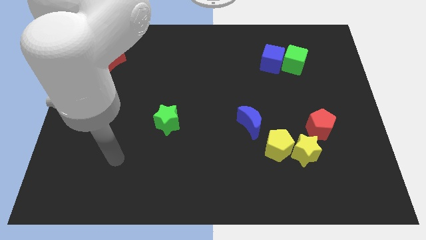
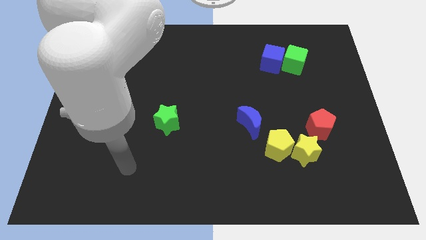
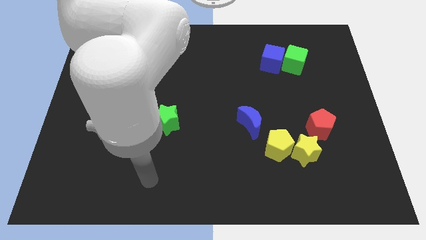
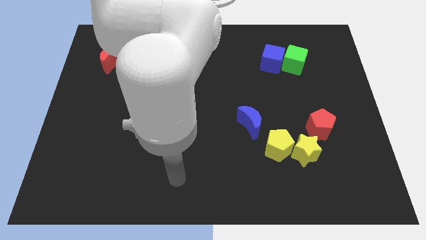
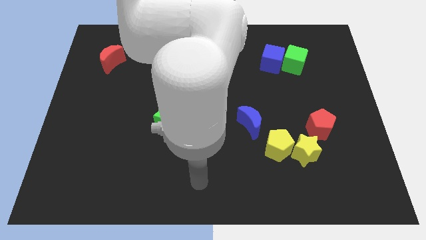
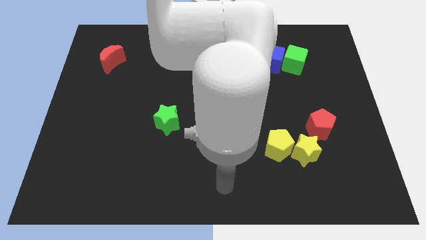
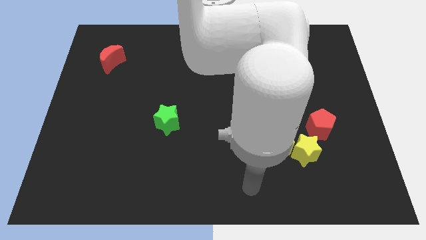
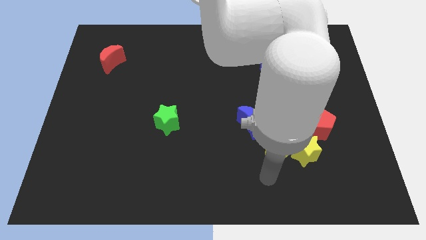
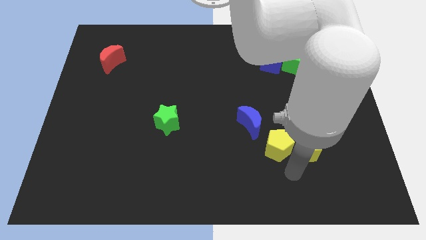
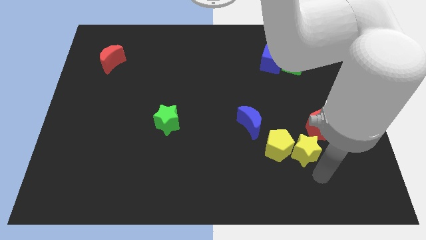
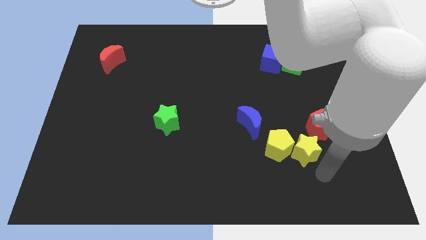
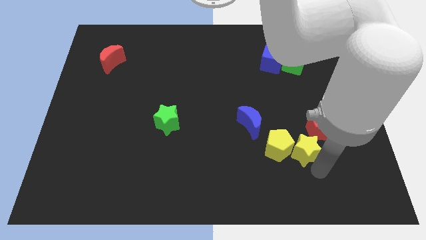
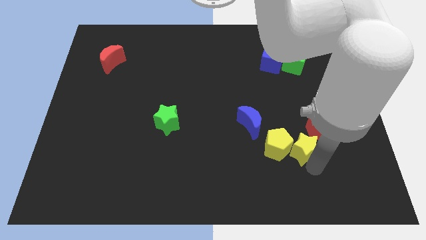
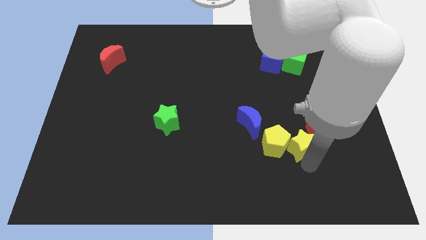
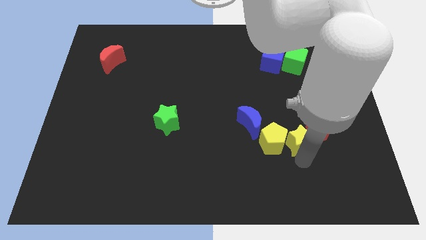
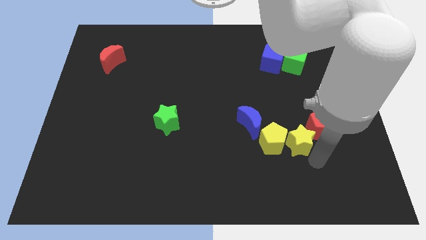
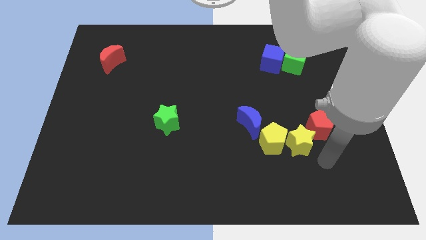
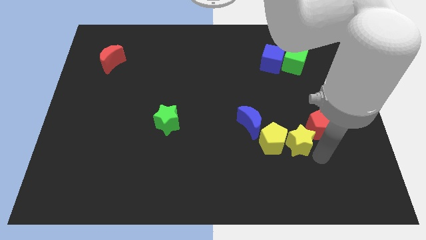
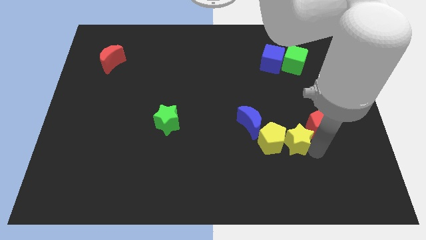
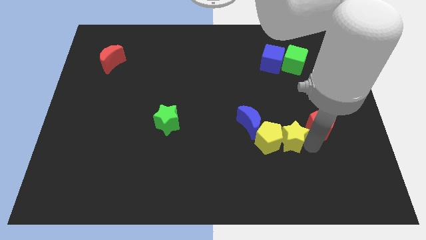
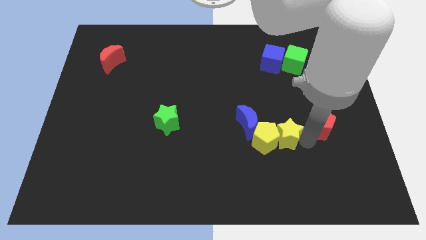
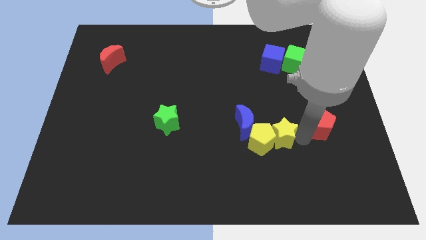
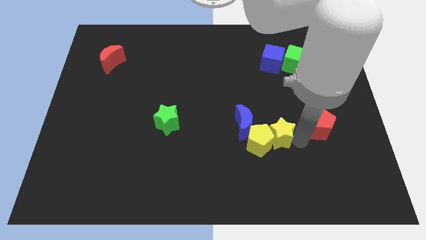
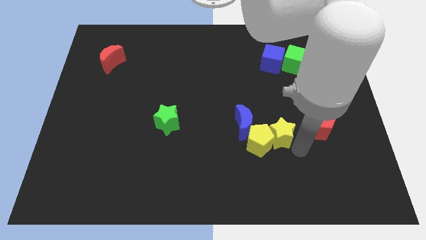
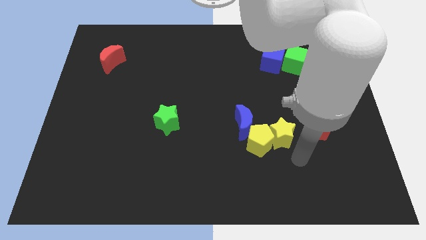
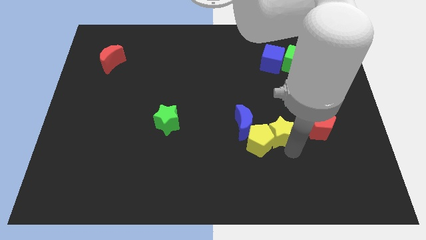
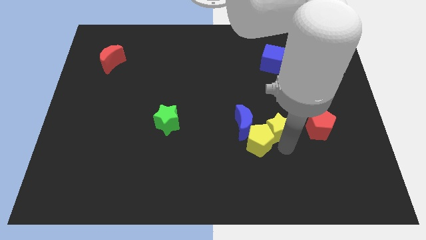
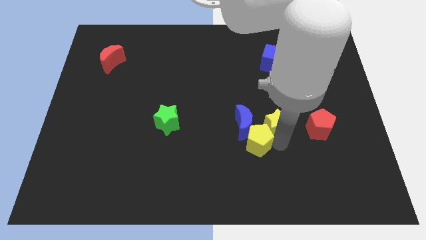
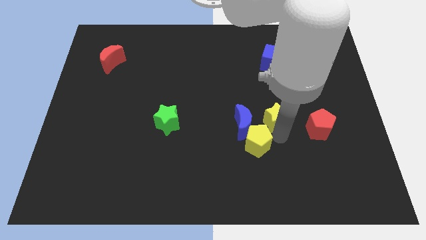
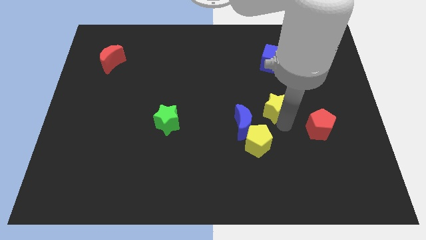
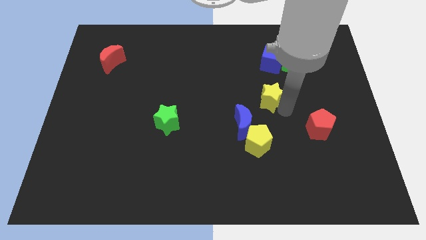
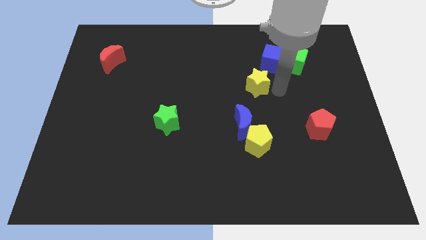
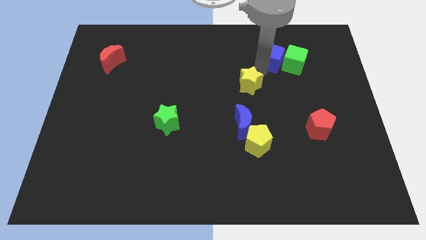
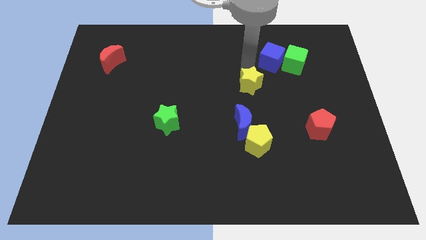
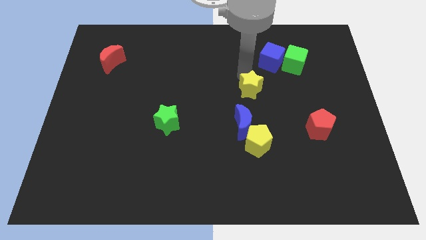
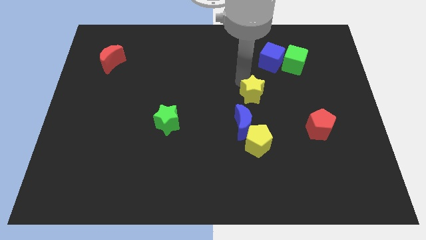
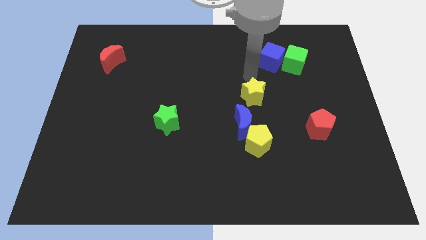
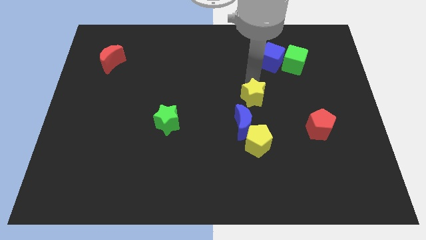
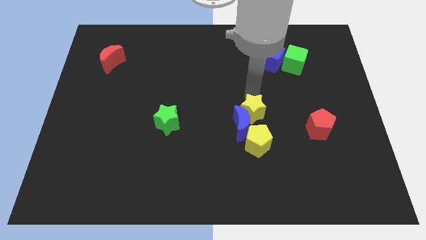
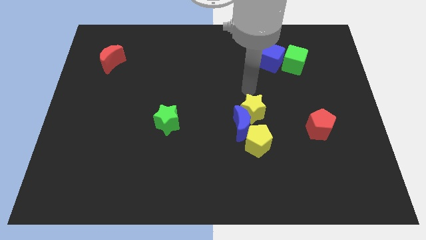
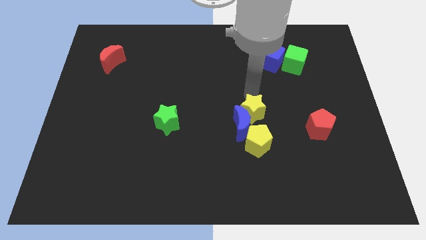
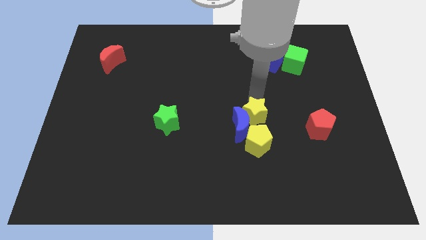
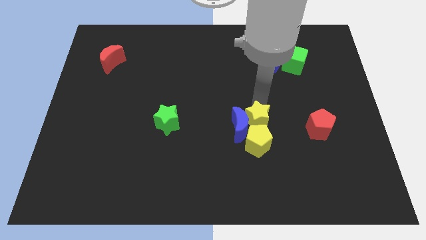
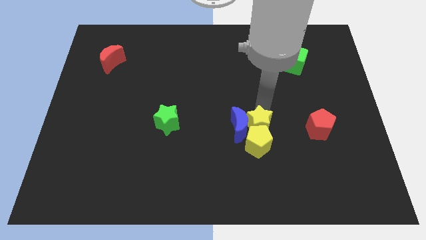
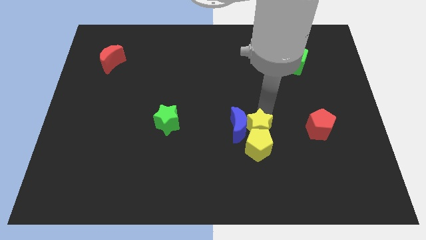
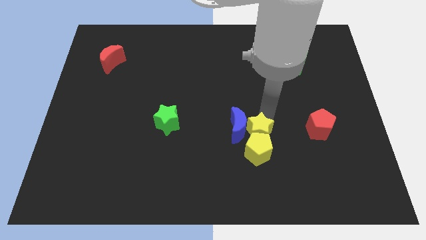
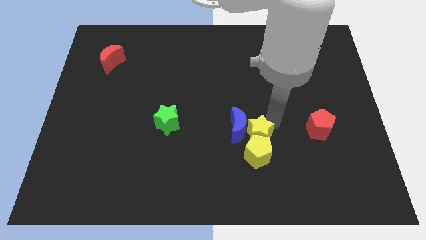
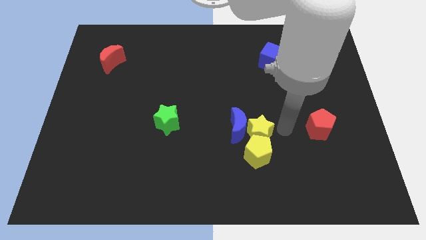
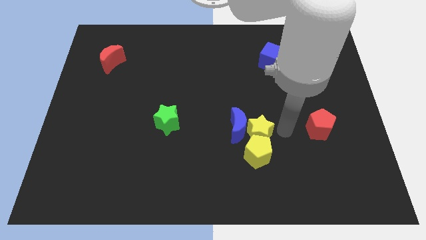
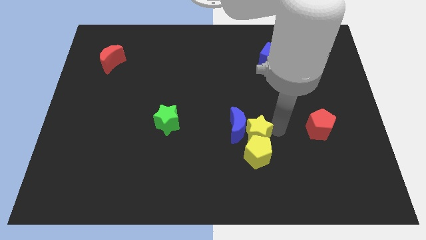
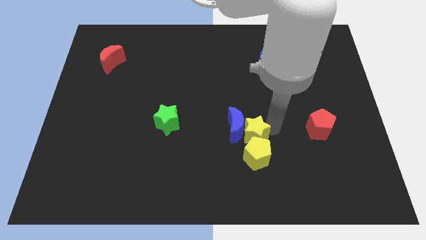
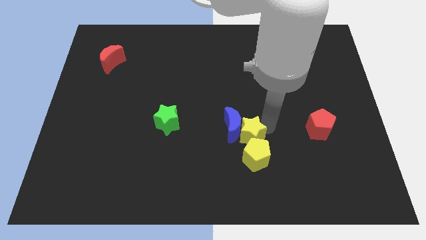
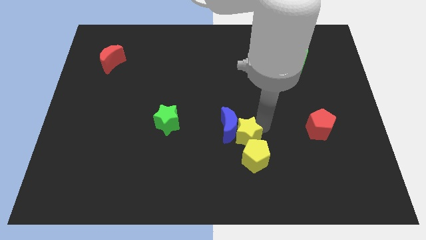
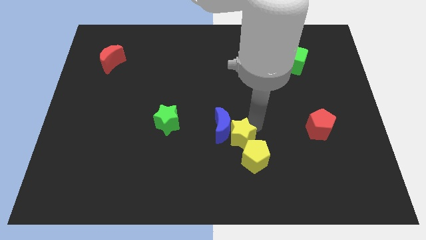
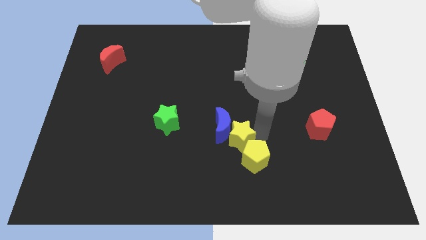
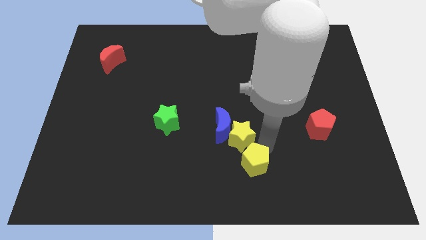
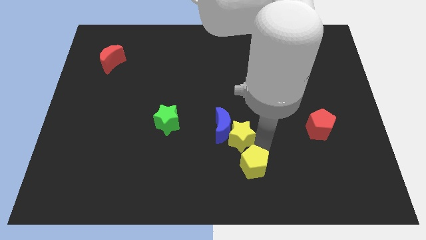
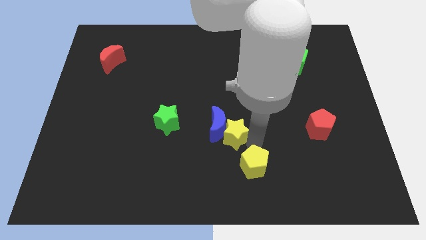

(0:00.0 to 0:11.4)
slide the yellow star just right of the green star

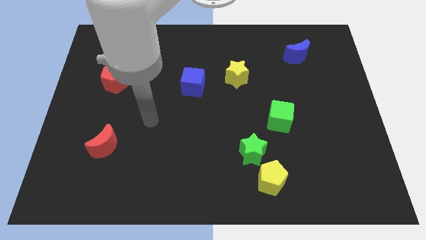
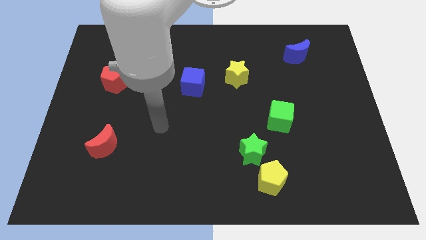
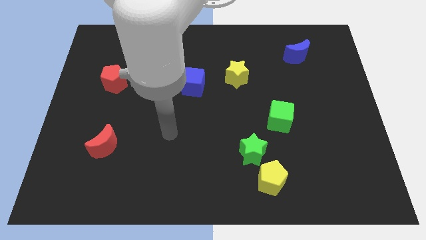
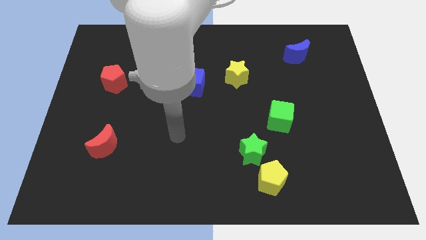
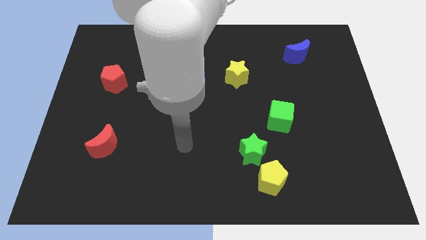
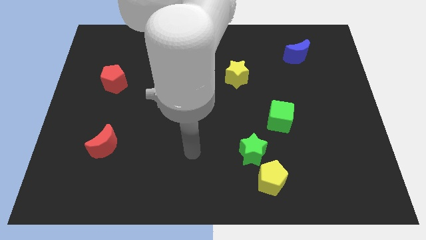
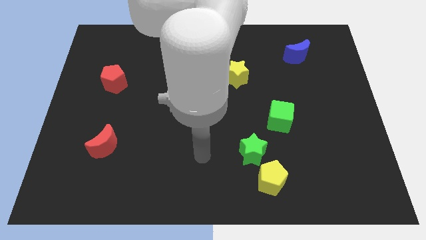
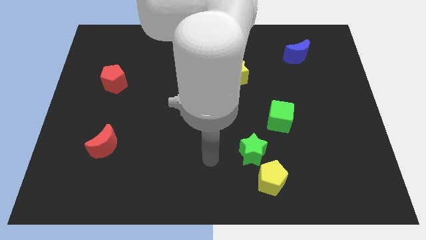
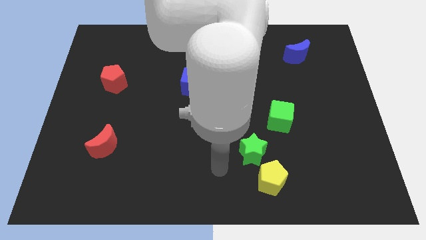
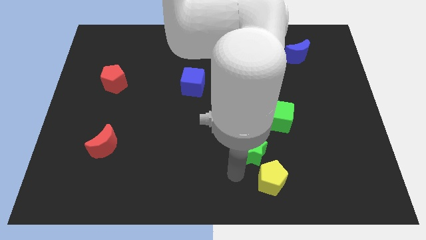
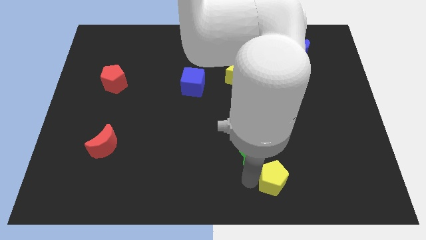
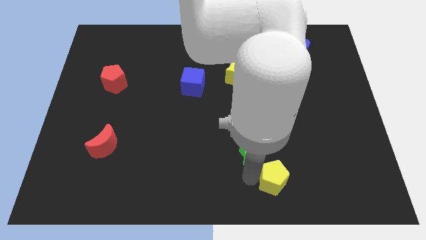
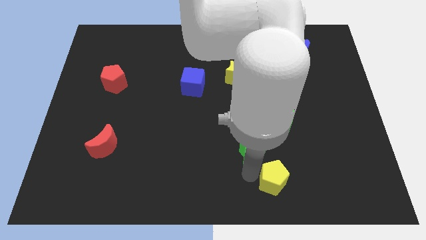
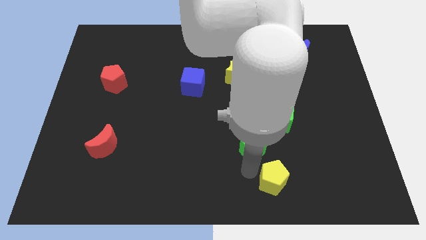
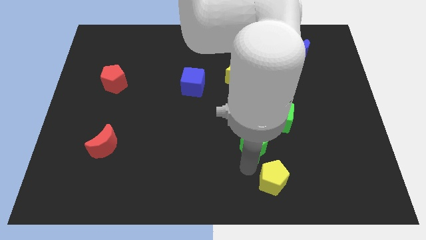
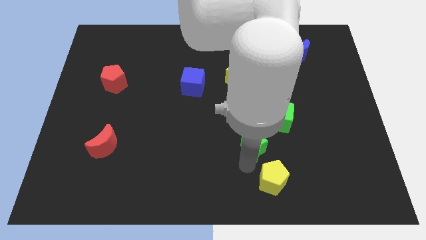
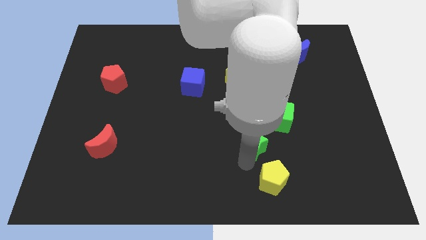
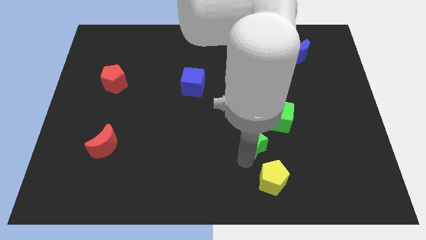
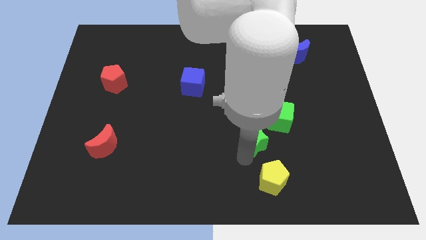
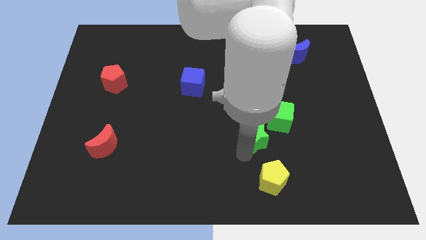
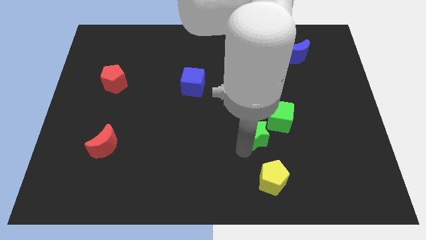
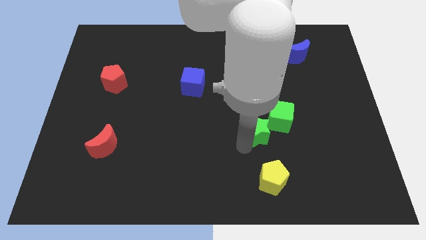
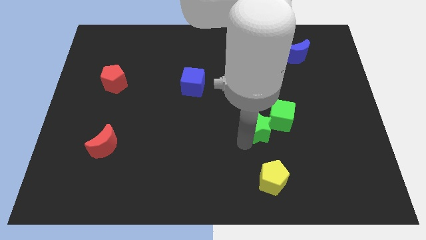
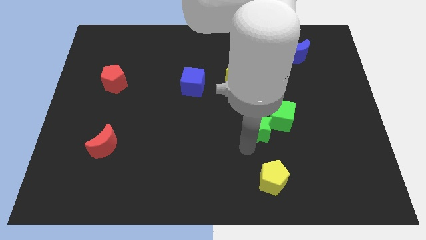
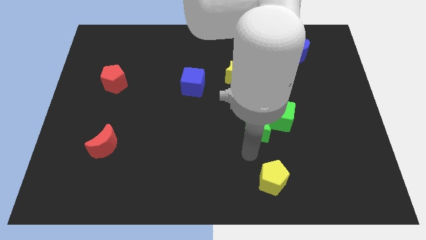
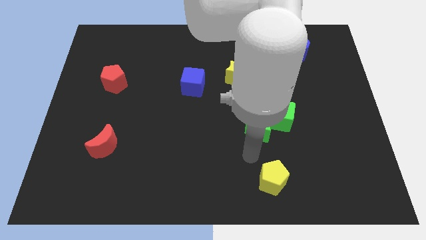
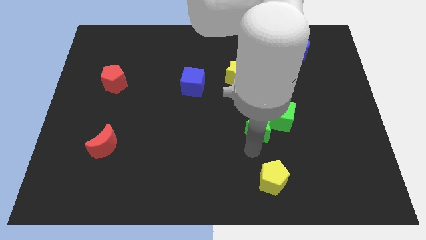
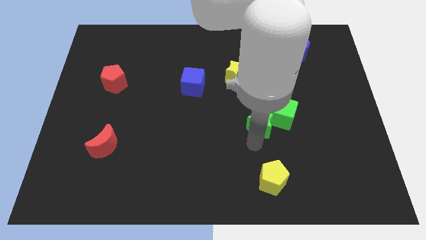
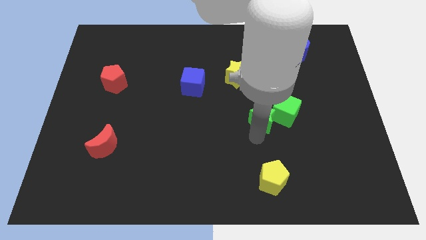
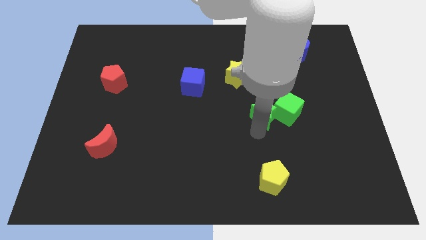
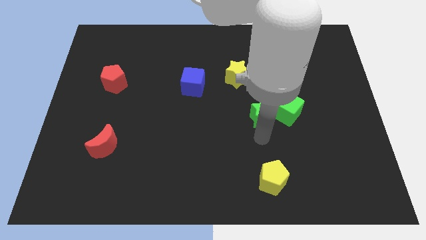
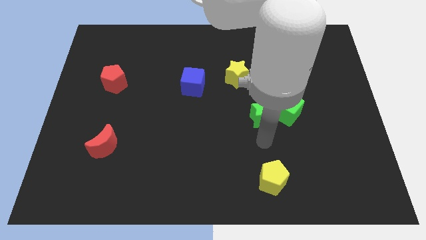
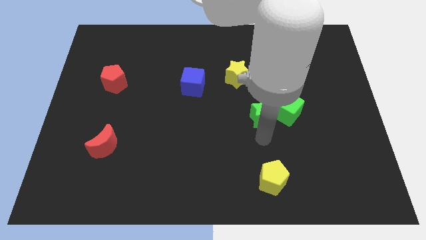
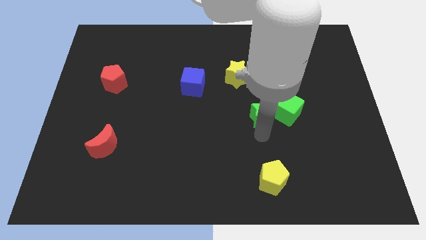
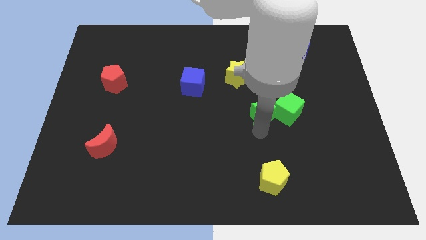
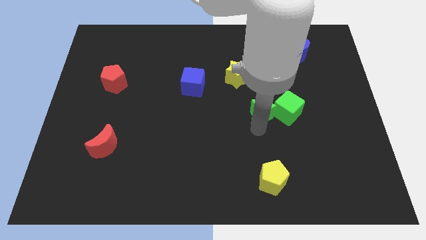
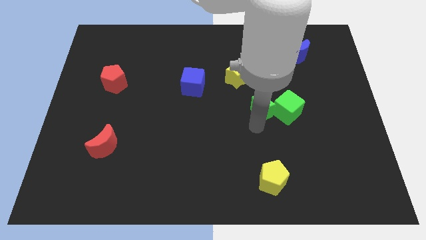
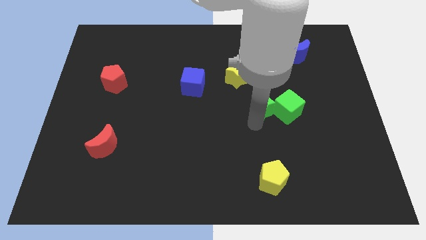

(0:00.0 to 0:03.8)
slide the green star to the bottom right of the yellow star
